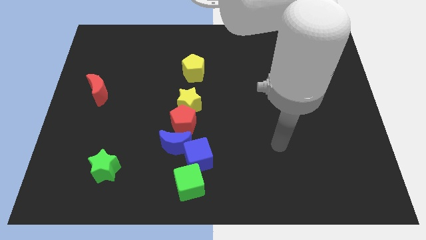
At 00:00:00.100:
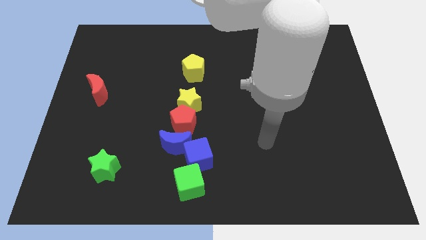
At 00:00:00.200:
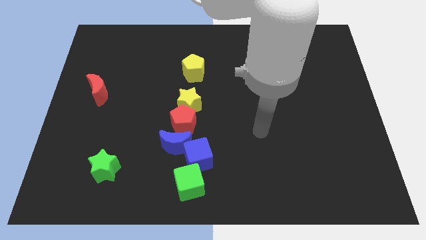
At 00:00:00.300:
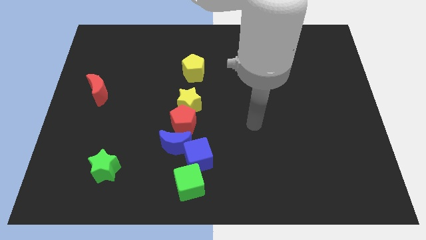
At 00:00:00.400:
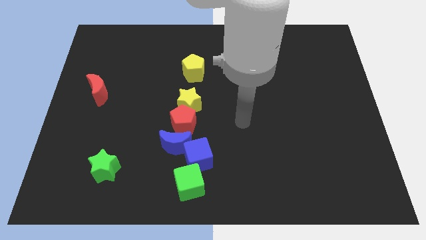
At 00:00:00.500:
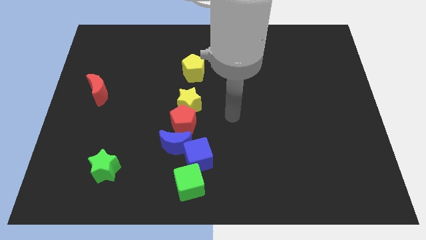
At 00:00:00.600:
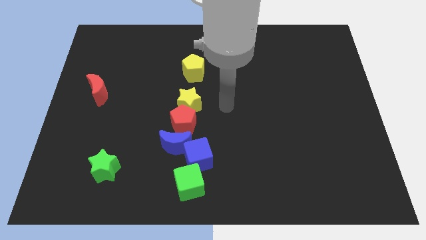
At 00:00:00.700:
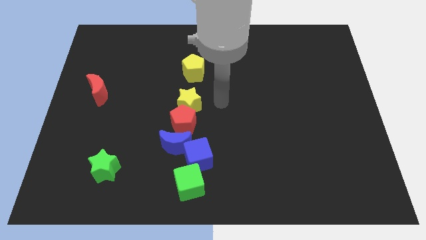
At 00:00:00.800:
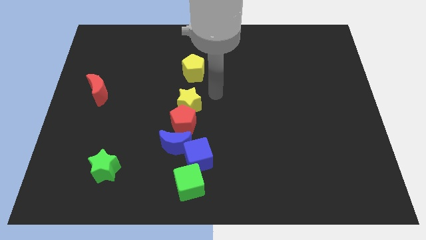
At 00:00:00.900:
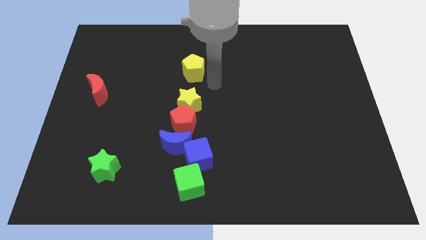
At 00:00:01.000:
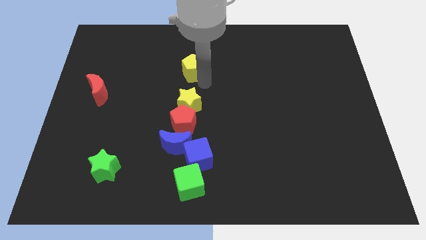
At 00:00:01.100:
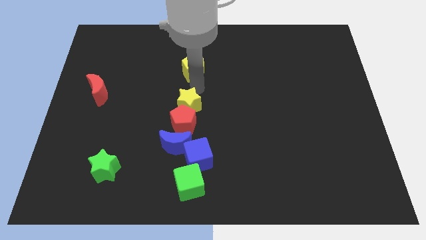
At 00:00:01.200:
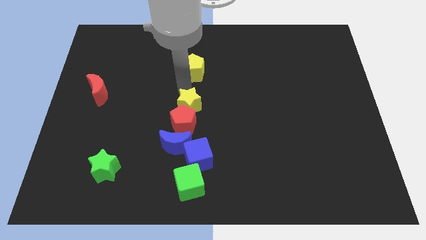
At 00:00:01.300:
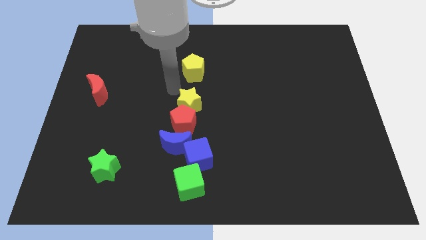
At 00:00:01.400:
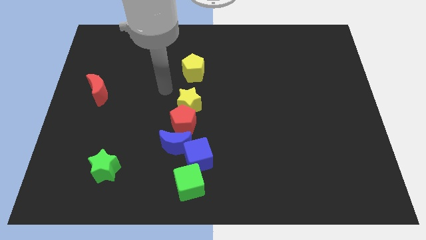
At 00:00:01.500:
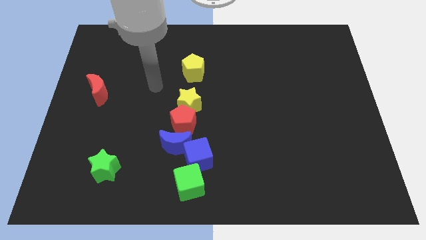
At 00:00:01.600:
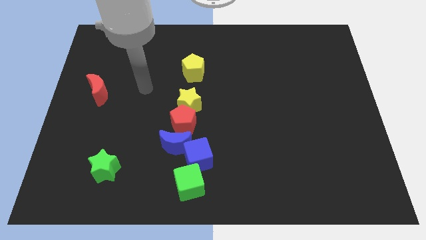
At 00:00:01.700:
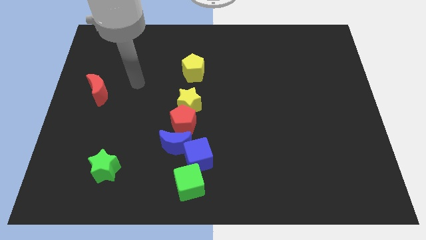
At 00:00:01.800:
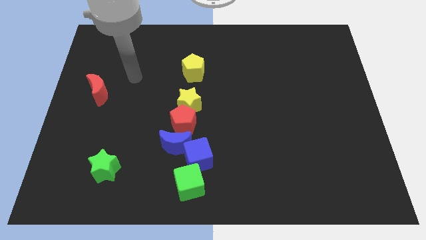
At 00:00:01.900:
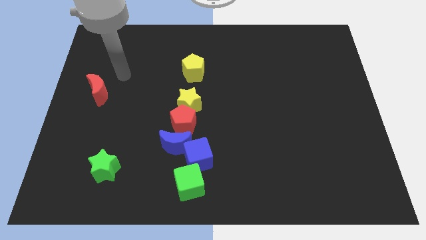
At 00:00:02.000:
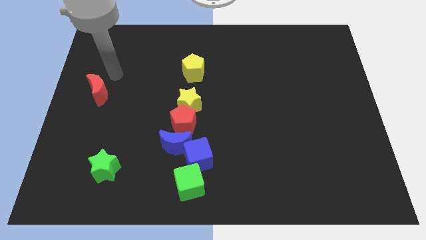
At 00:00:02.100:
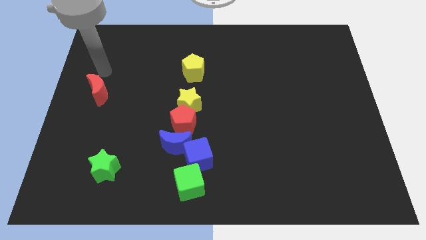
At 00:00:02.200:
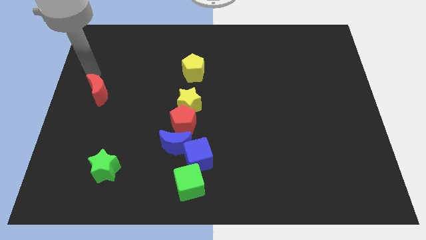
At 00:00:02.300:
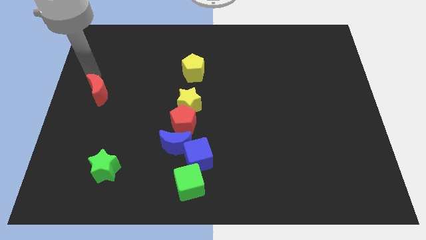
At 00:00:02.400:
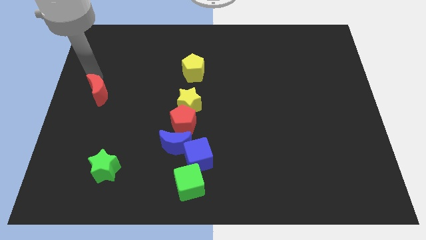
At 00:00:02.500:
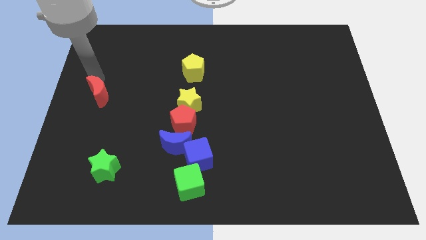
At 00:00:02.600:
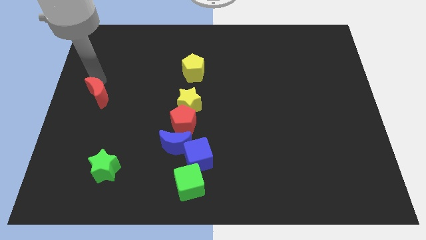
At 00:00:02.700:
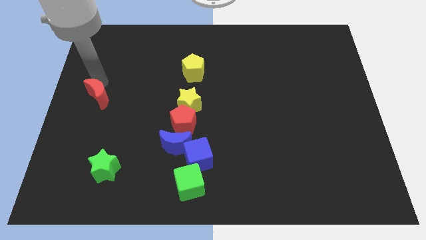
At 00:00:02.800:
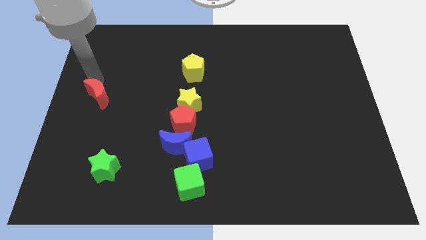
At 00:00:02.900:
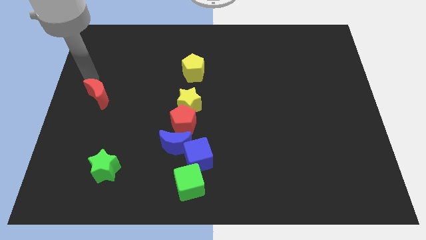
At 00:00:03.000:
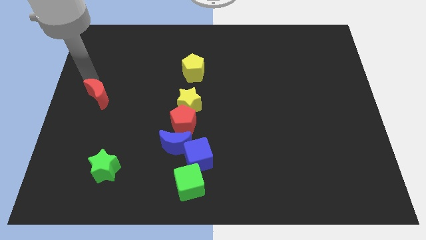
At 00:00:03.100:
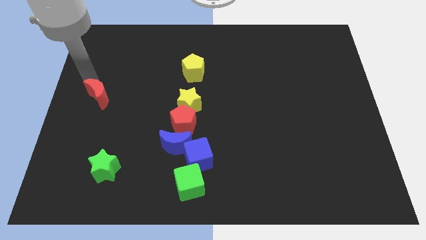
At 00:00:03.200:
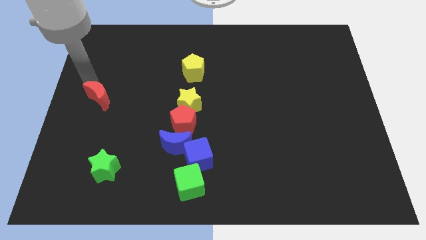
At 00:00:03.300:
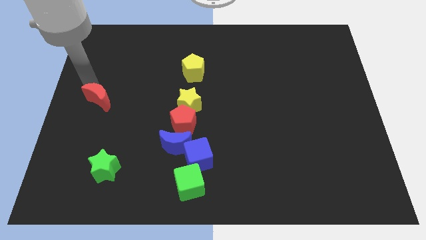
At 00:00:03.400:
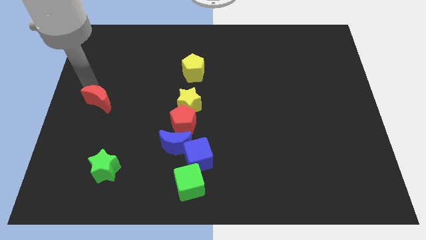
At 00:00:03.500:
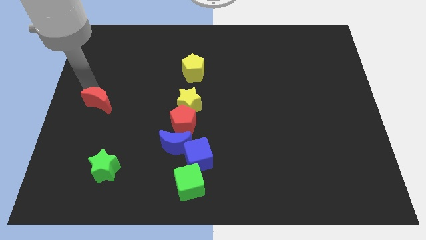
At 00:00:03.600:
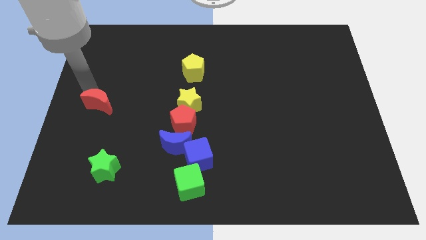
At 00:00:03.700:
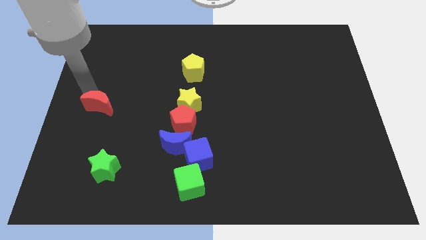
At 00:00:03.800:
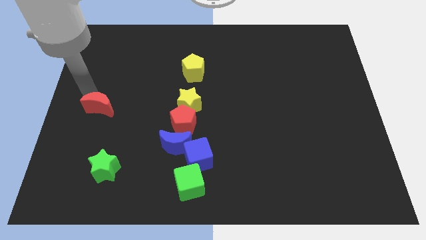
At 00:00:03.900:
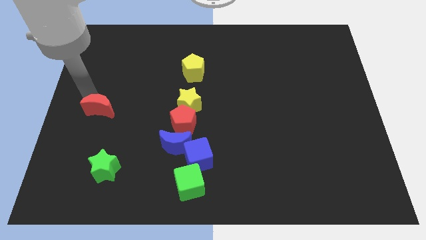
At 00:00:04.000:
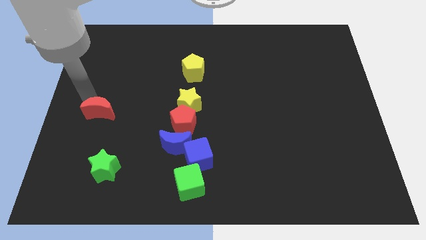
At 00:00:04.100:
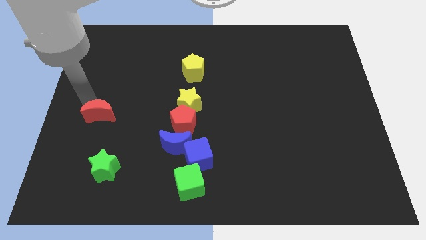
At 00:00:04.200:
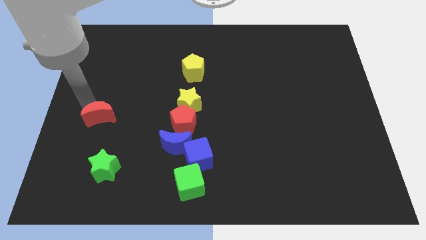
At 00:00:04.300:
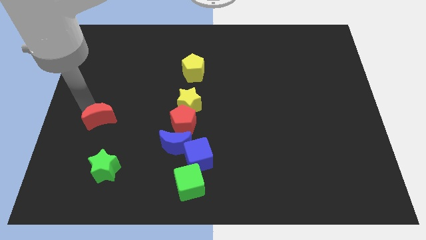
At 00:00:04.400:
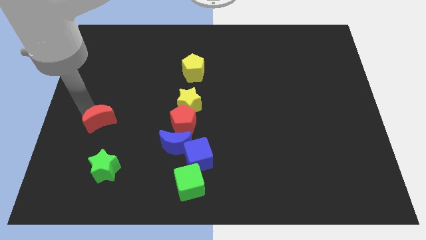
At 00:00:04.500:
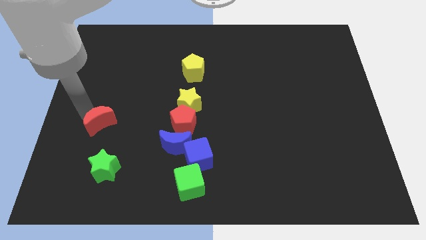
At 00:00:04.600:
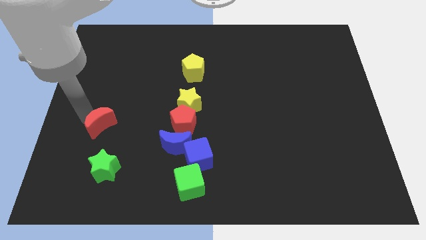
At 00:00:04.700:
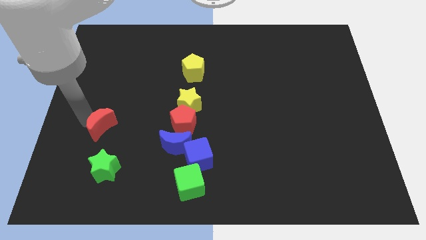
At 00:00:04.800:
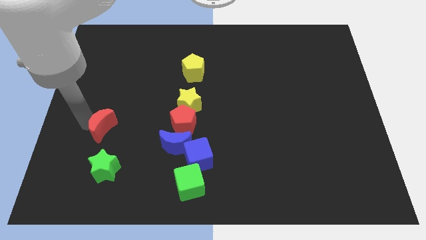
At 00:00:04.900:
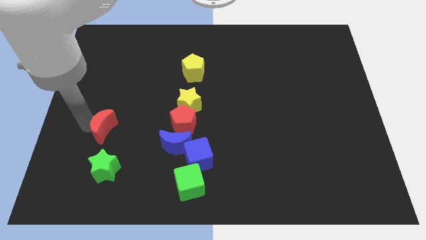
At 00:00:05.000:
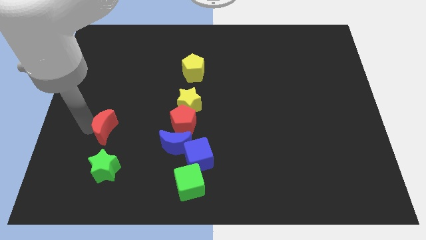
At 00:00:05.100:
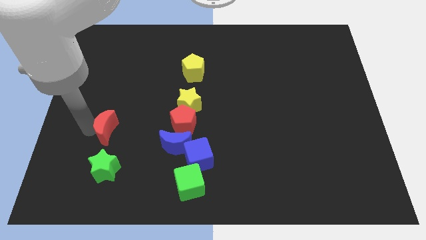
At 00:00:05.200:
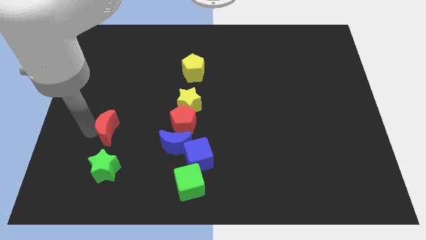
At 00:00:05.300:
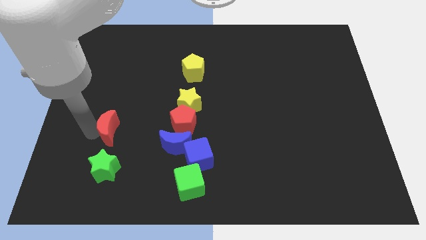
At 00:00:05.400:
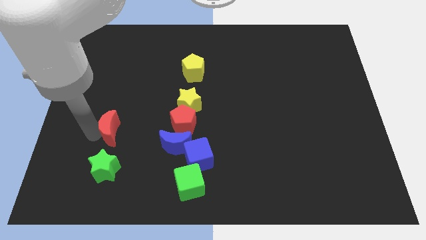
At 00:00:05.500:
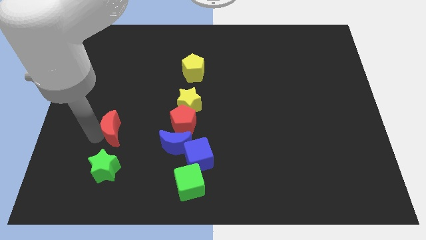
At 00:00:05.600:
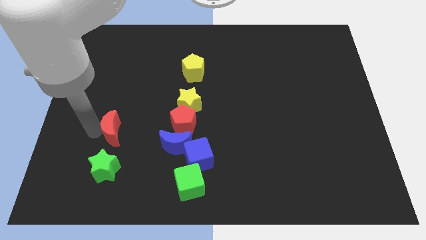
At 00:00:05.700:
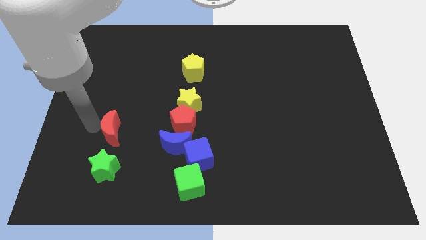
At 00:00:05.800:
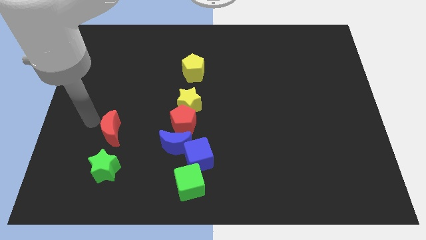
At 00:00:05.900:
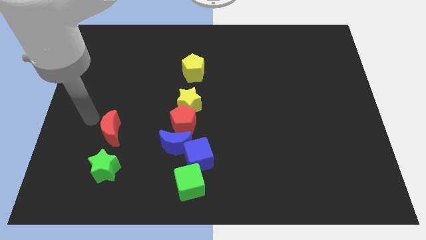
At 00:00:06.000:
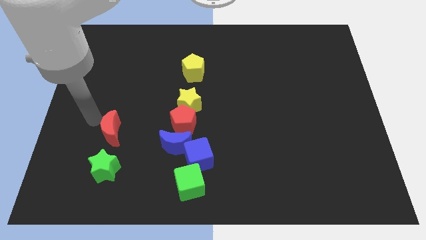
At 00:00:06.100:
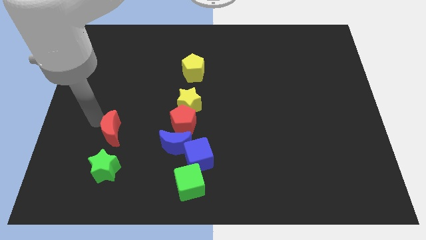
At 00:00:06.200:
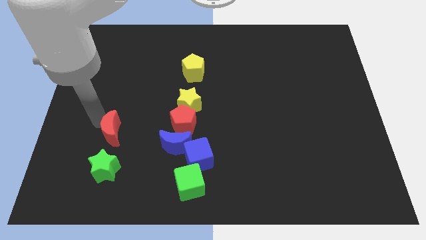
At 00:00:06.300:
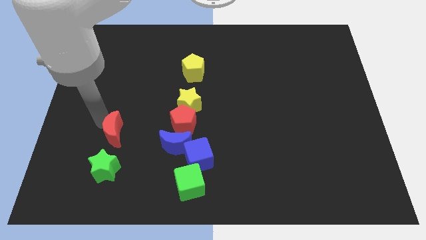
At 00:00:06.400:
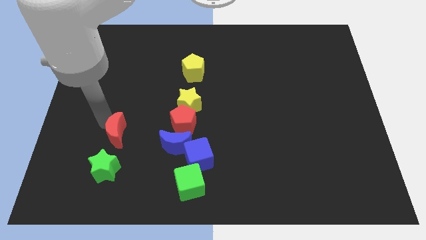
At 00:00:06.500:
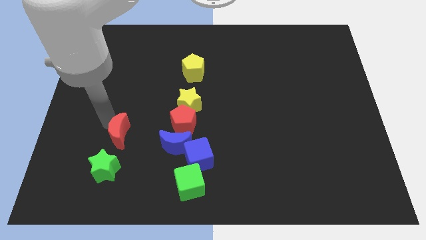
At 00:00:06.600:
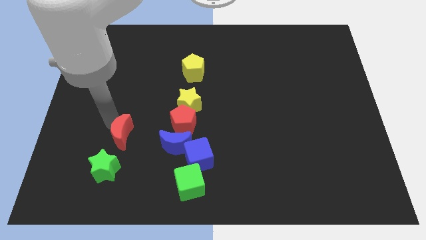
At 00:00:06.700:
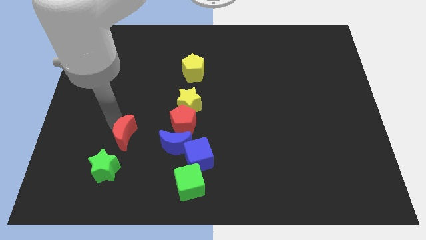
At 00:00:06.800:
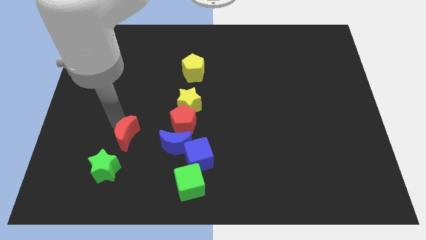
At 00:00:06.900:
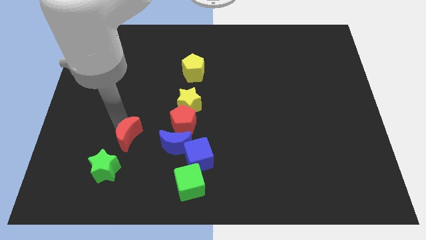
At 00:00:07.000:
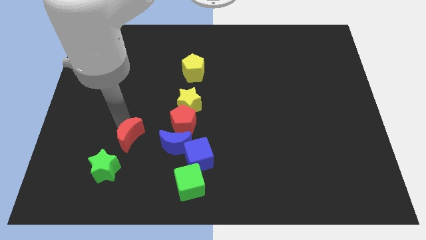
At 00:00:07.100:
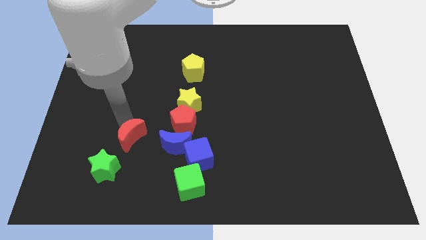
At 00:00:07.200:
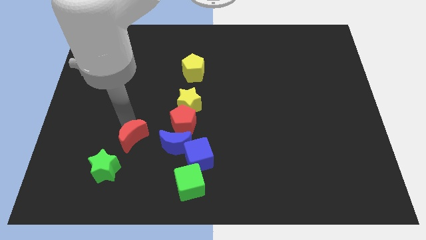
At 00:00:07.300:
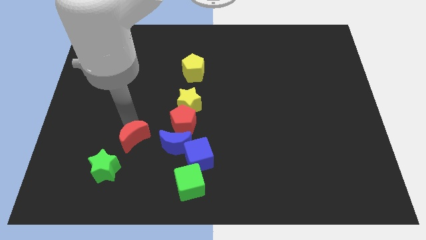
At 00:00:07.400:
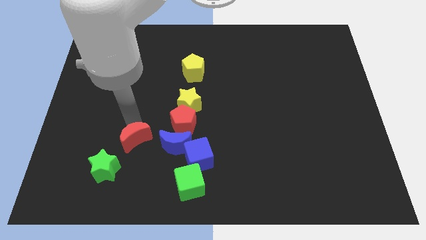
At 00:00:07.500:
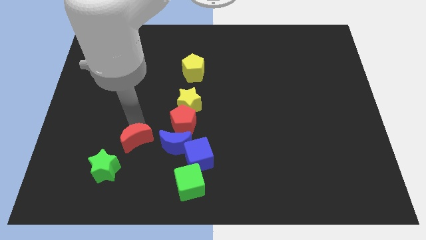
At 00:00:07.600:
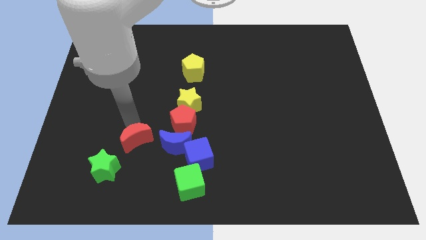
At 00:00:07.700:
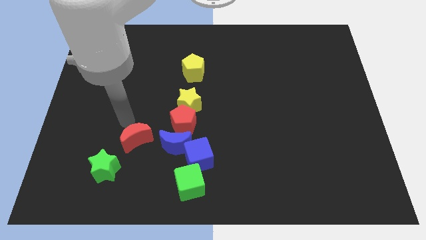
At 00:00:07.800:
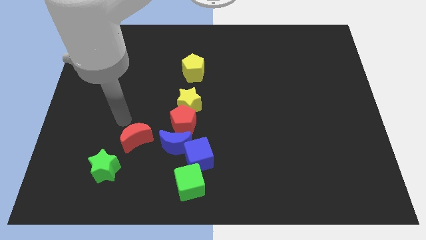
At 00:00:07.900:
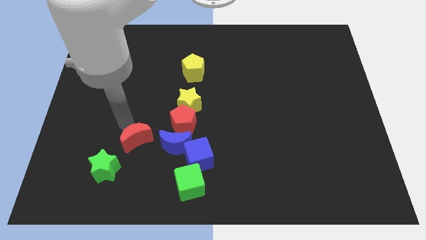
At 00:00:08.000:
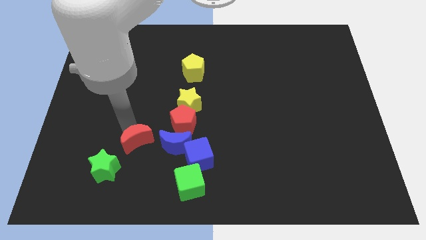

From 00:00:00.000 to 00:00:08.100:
push the red moon left of the blue cube
